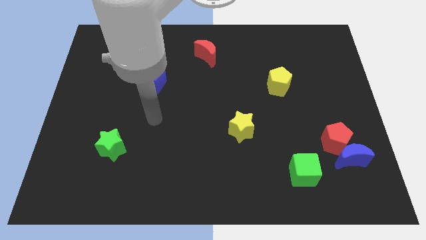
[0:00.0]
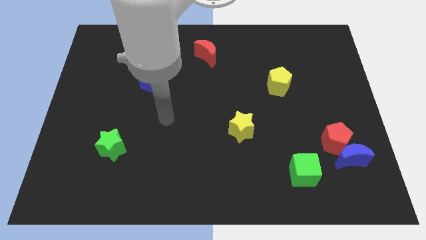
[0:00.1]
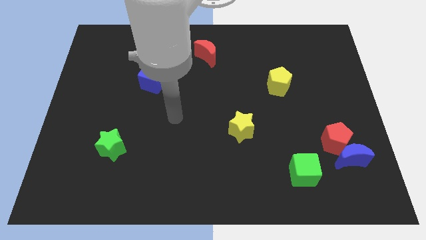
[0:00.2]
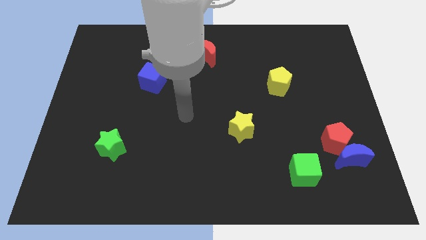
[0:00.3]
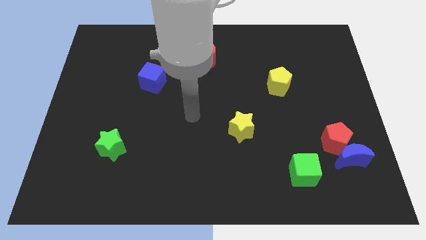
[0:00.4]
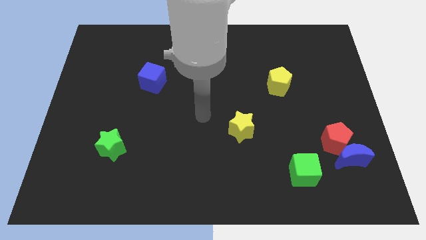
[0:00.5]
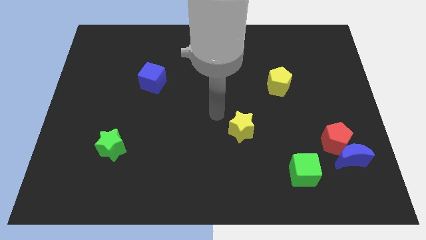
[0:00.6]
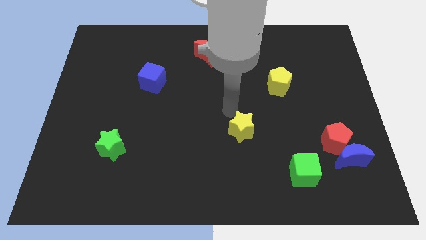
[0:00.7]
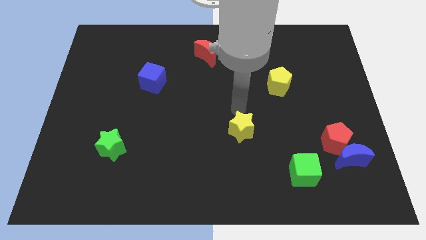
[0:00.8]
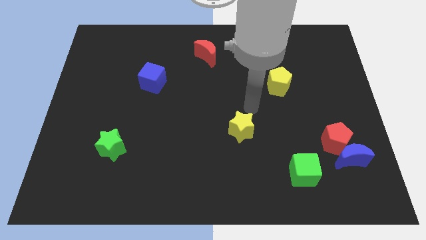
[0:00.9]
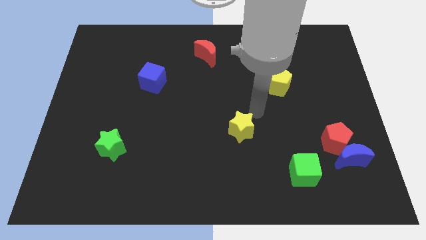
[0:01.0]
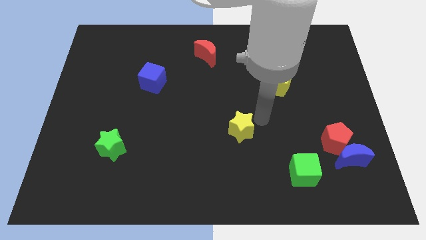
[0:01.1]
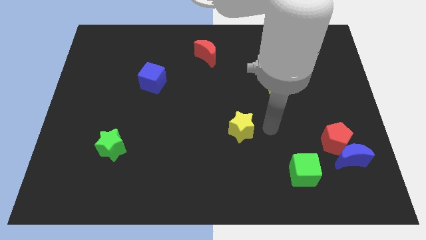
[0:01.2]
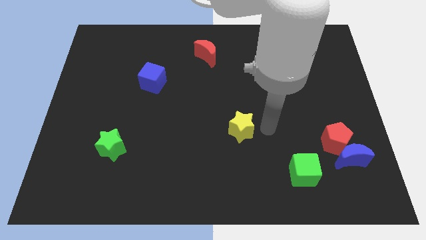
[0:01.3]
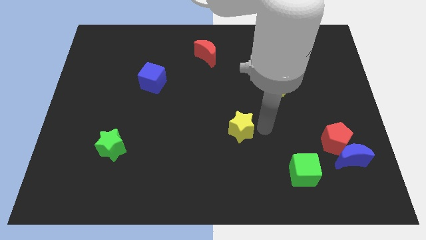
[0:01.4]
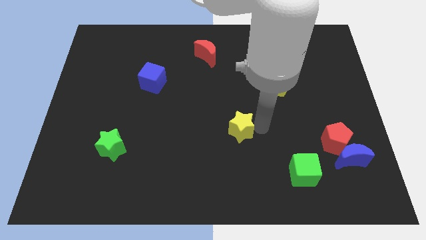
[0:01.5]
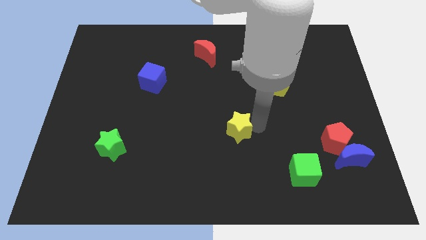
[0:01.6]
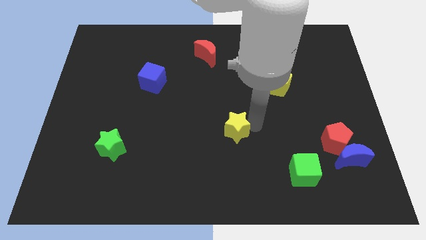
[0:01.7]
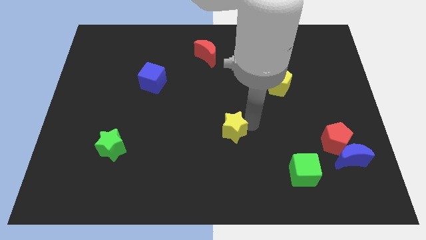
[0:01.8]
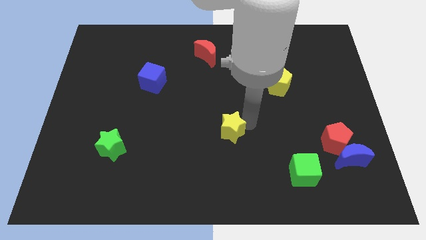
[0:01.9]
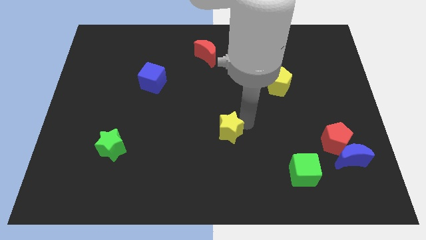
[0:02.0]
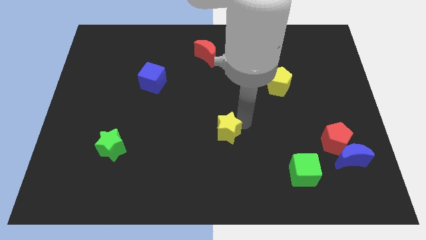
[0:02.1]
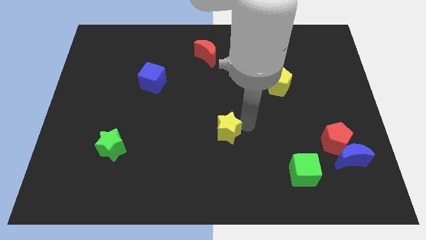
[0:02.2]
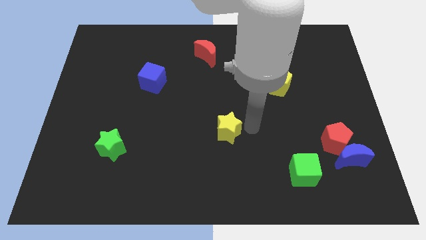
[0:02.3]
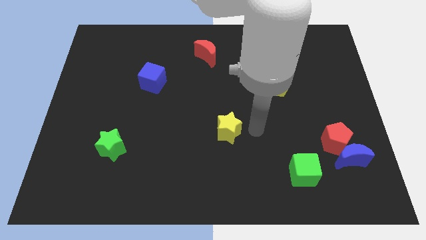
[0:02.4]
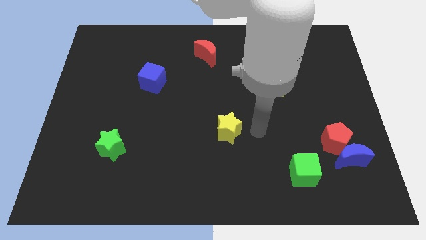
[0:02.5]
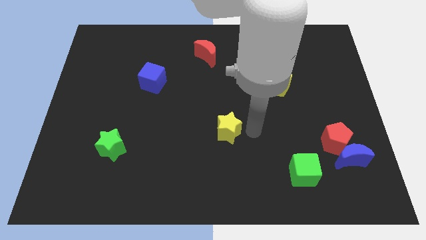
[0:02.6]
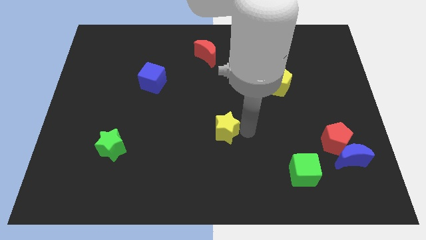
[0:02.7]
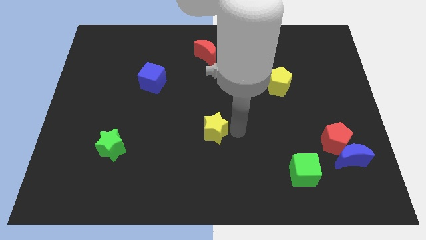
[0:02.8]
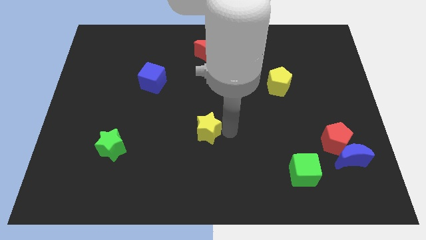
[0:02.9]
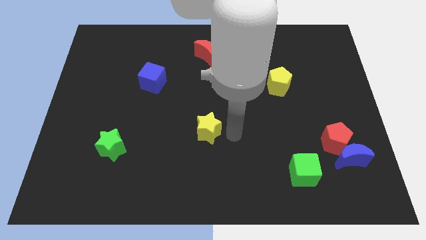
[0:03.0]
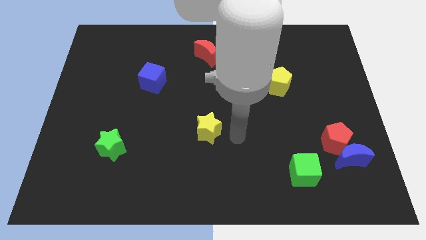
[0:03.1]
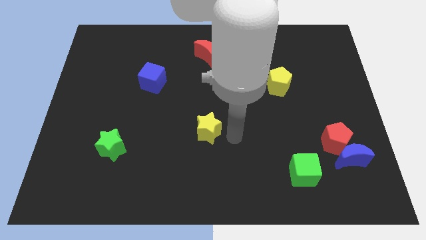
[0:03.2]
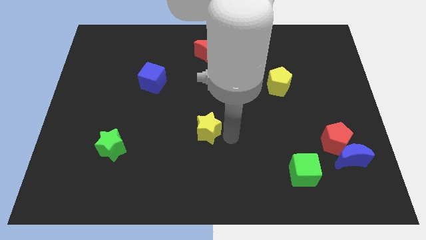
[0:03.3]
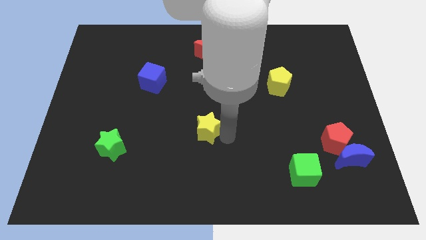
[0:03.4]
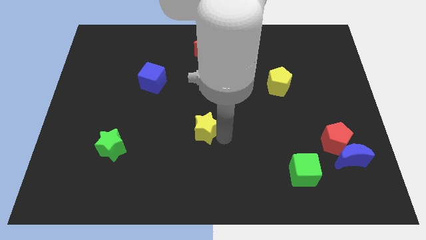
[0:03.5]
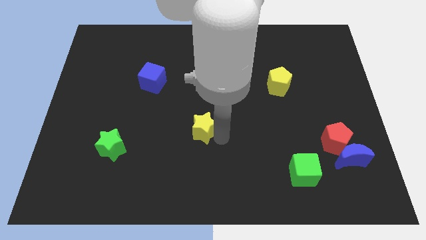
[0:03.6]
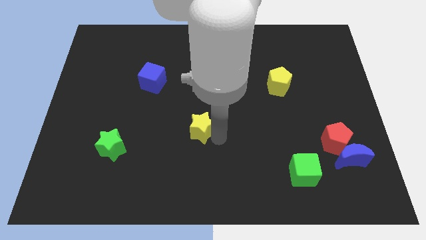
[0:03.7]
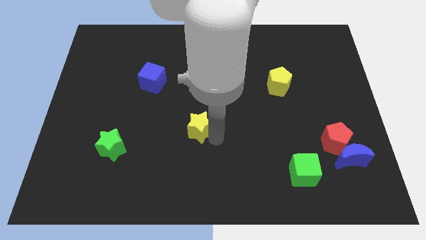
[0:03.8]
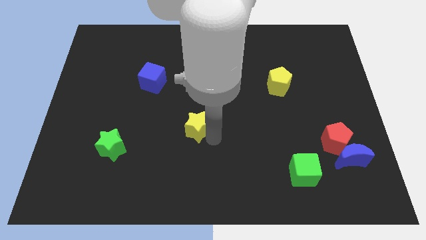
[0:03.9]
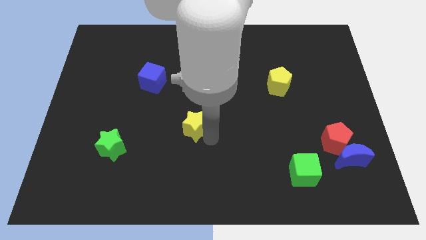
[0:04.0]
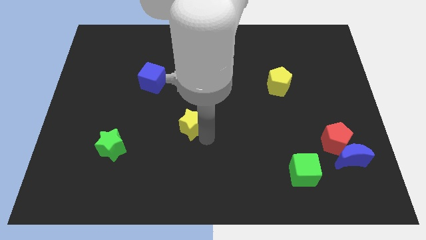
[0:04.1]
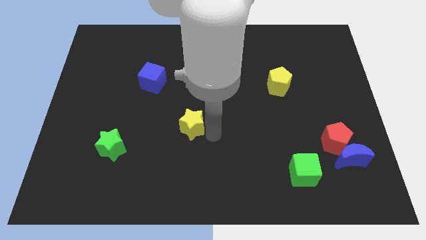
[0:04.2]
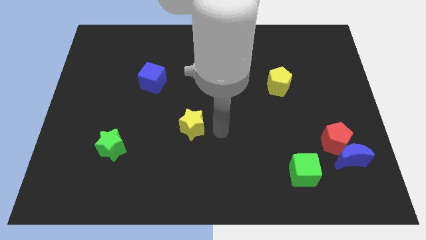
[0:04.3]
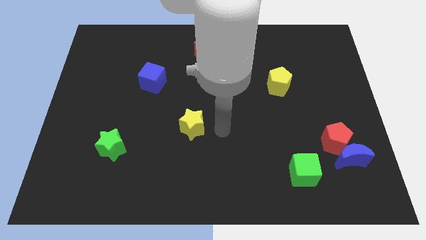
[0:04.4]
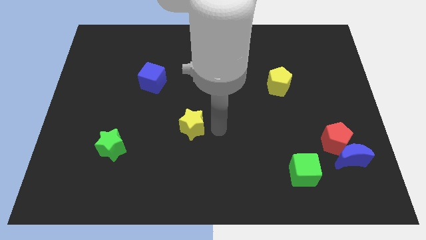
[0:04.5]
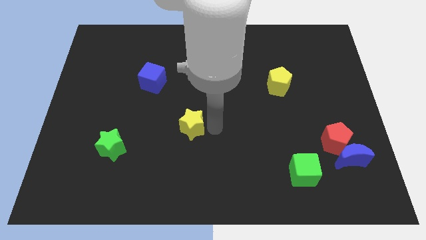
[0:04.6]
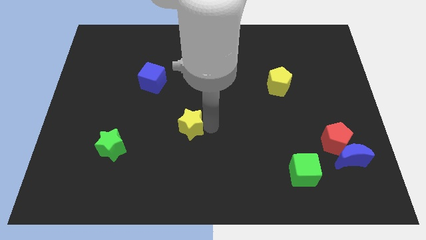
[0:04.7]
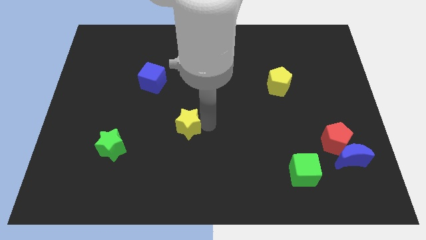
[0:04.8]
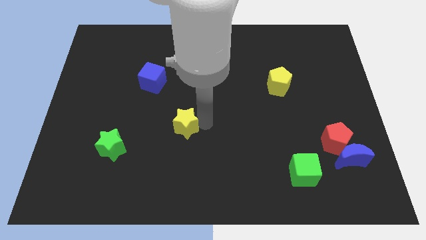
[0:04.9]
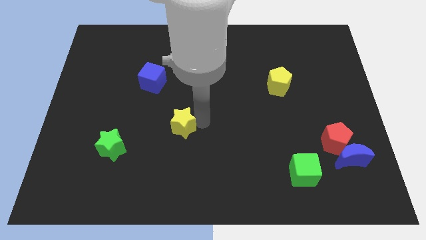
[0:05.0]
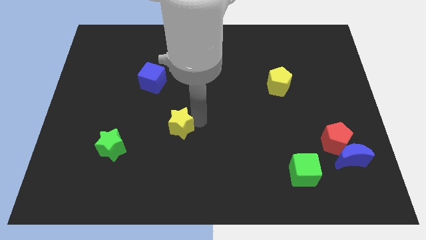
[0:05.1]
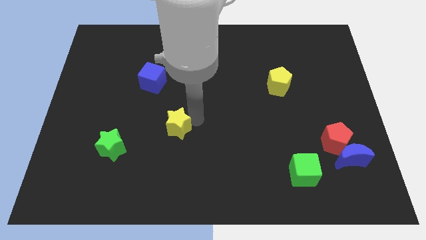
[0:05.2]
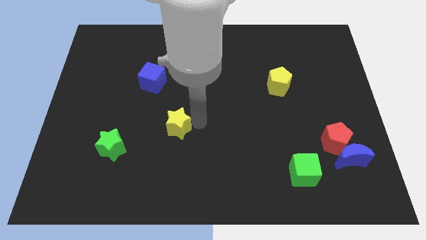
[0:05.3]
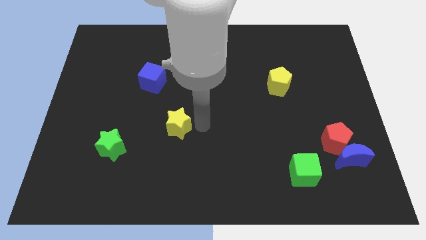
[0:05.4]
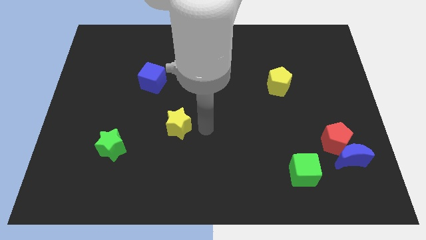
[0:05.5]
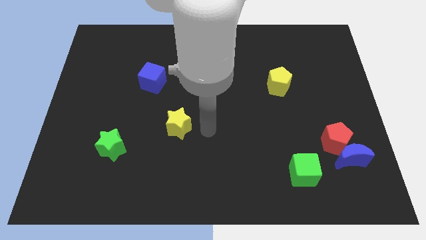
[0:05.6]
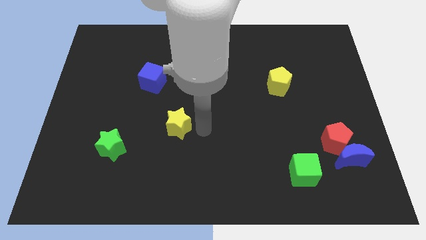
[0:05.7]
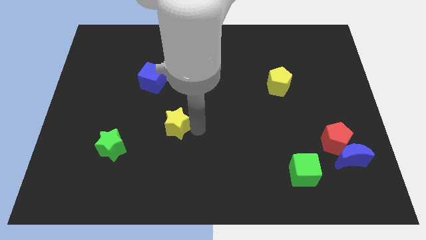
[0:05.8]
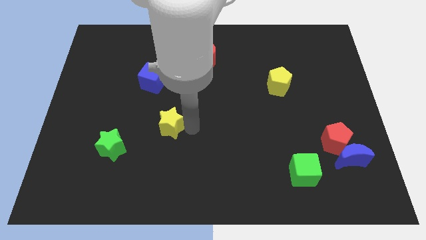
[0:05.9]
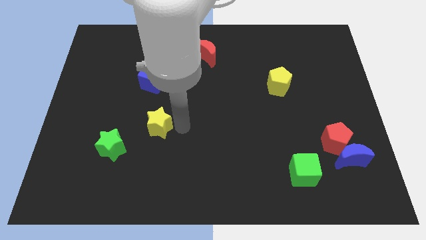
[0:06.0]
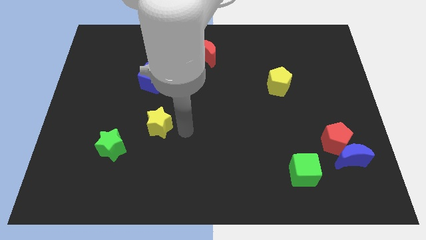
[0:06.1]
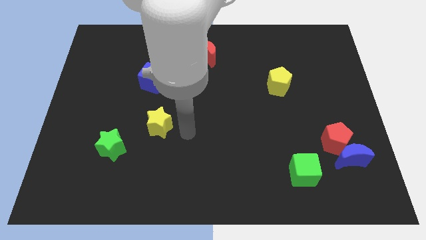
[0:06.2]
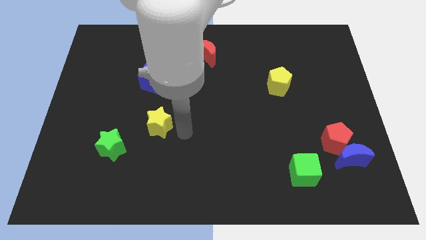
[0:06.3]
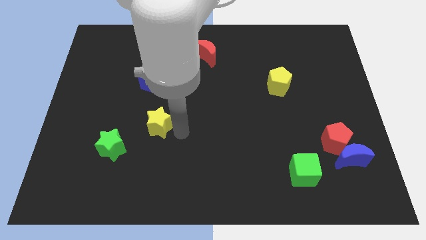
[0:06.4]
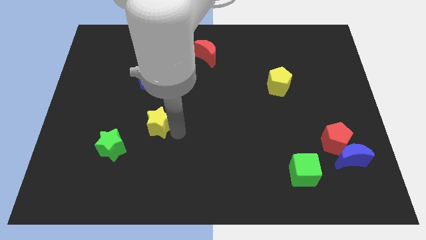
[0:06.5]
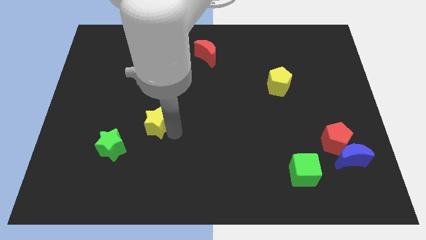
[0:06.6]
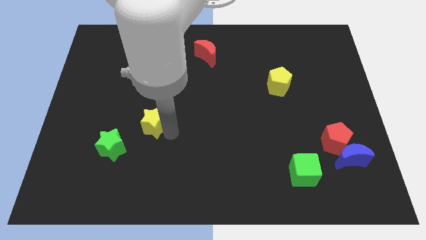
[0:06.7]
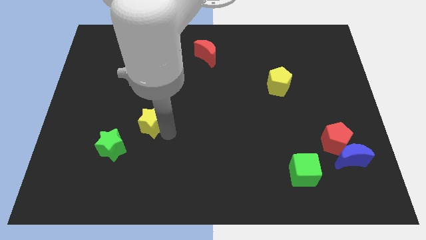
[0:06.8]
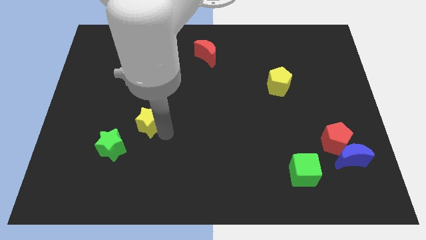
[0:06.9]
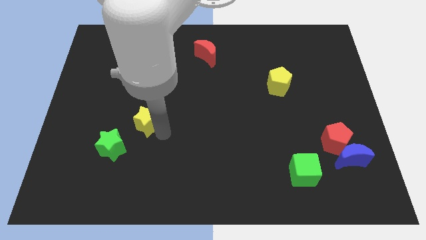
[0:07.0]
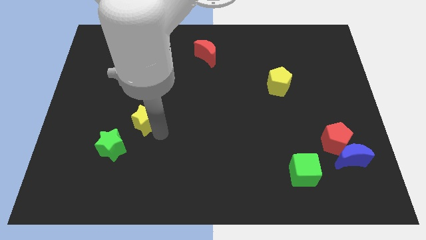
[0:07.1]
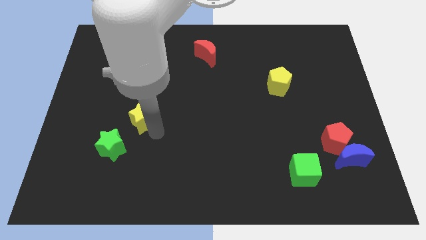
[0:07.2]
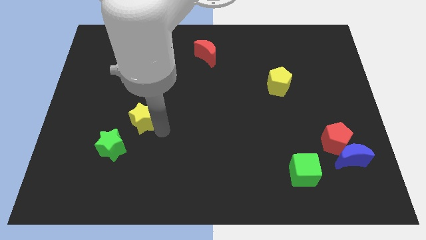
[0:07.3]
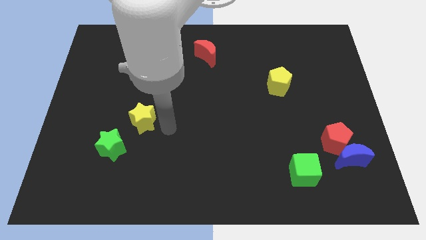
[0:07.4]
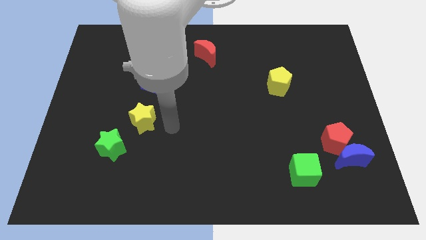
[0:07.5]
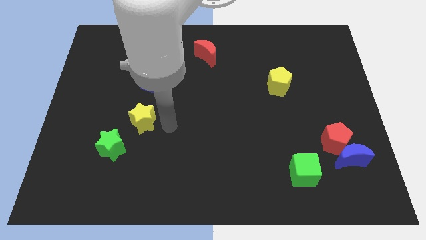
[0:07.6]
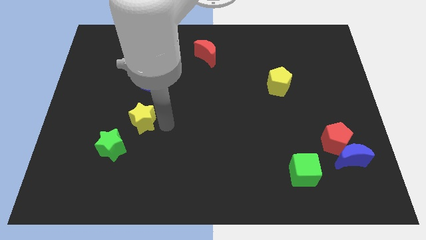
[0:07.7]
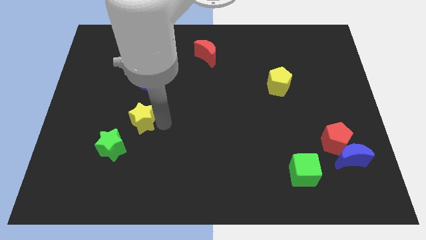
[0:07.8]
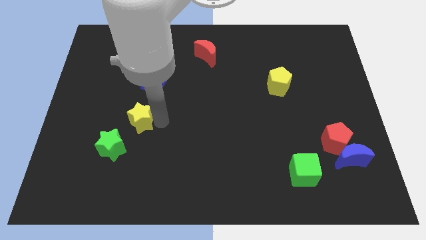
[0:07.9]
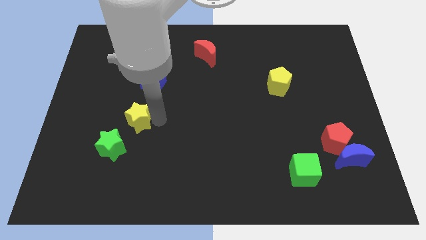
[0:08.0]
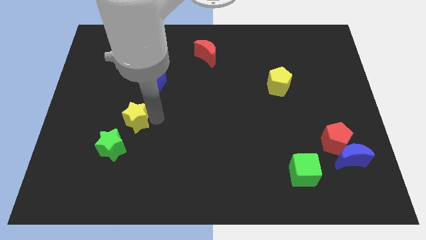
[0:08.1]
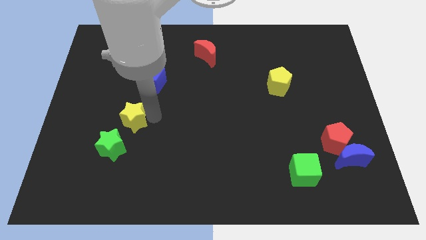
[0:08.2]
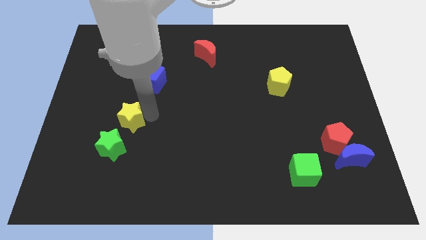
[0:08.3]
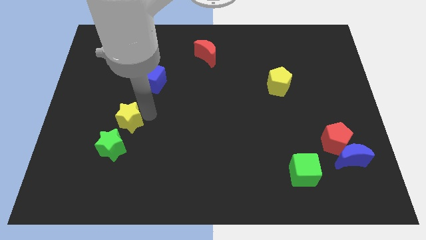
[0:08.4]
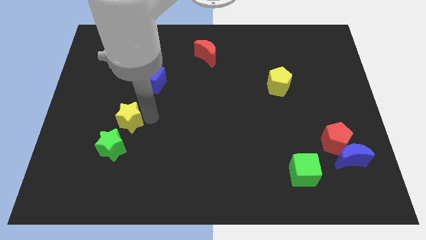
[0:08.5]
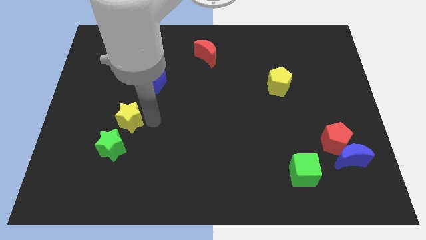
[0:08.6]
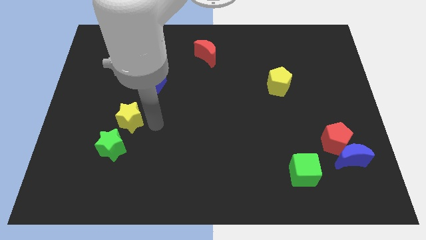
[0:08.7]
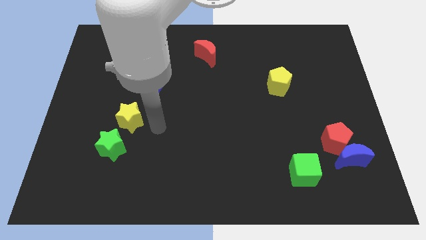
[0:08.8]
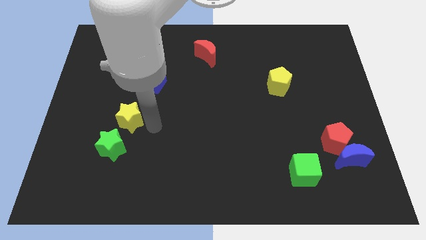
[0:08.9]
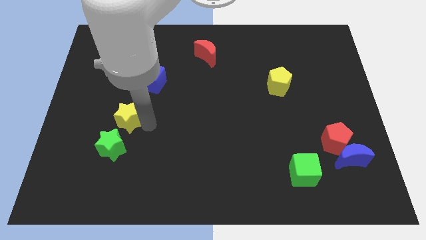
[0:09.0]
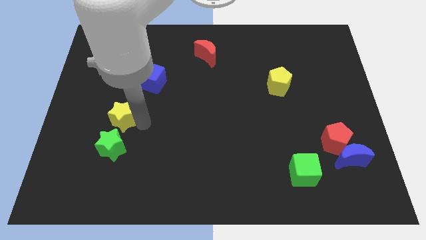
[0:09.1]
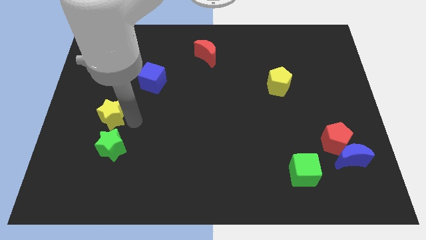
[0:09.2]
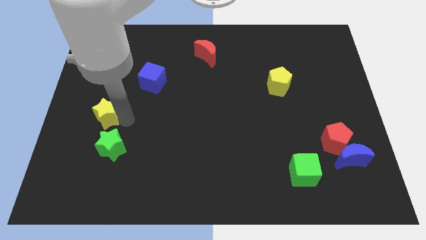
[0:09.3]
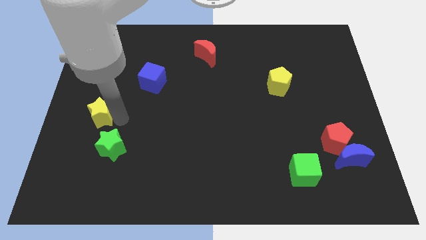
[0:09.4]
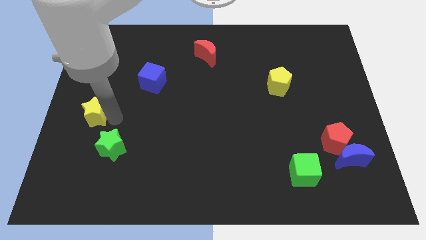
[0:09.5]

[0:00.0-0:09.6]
put the yellow star to the left side of the board
